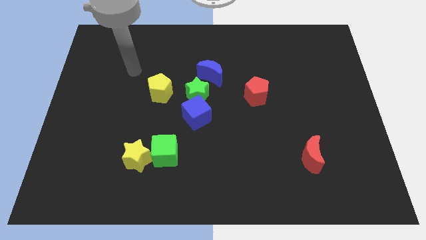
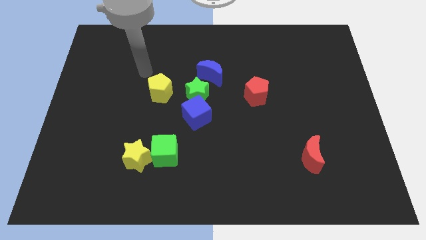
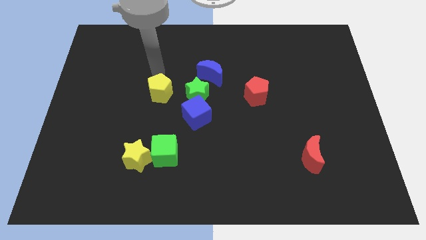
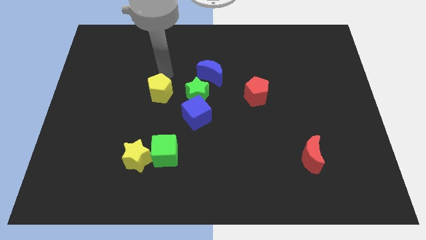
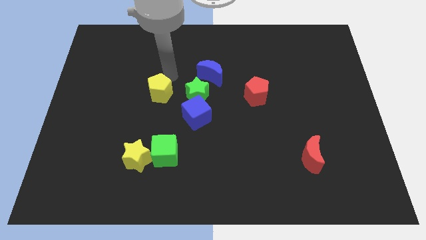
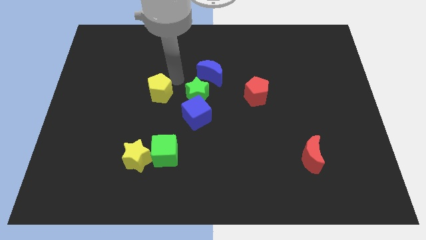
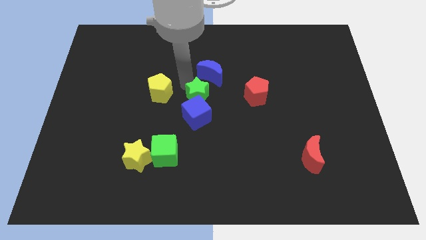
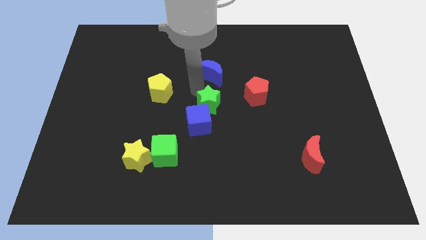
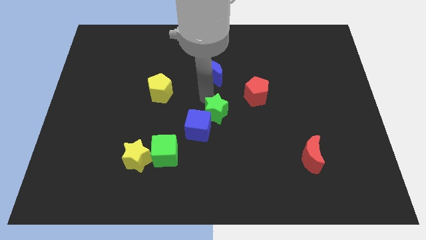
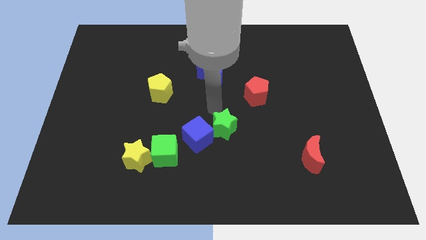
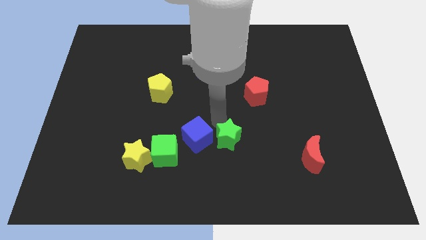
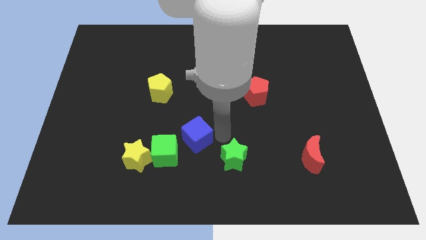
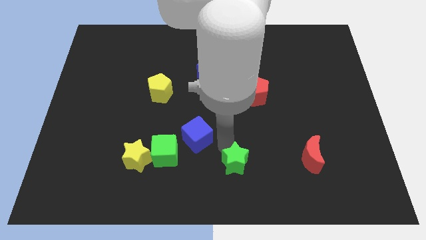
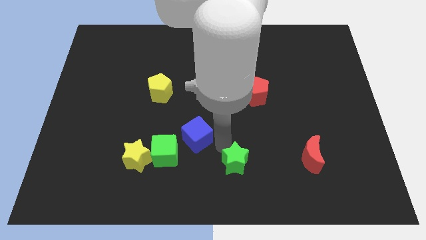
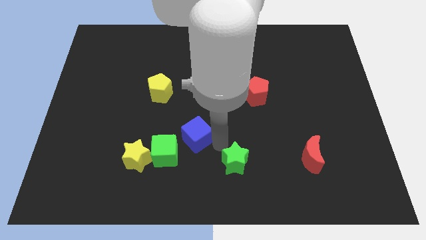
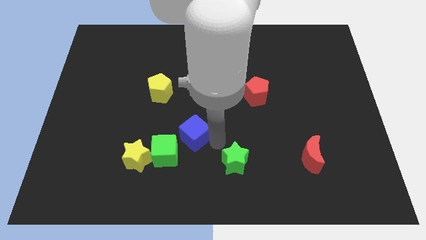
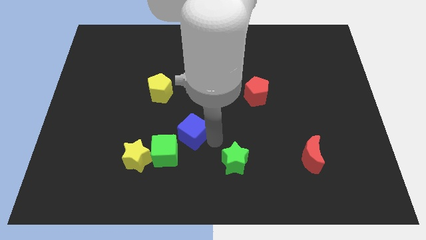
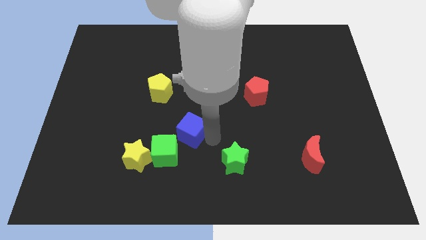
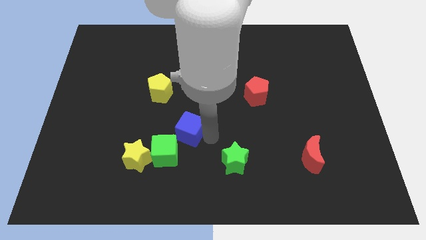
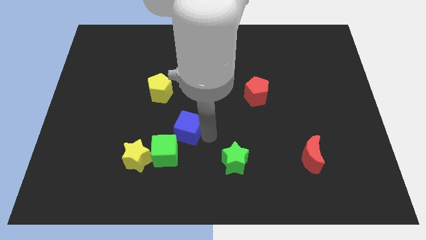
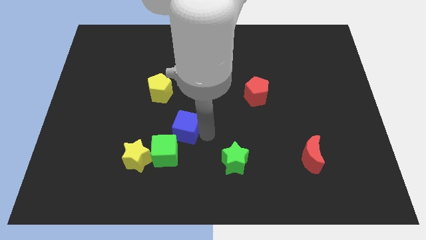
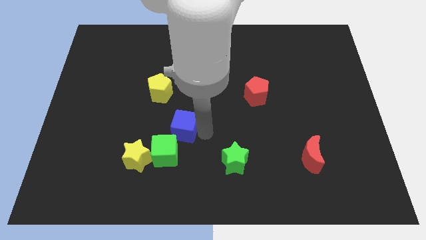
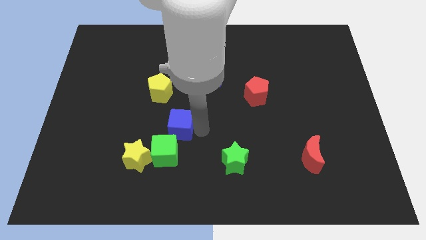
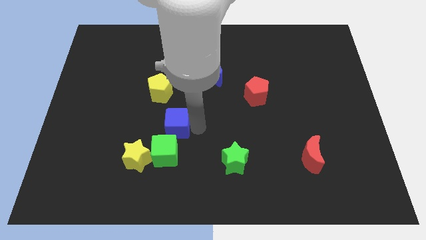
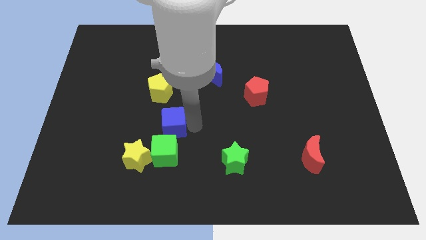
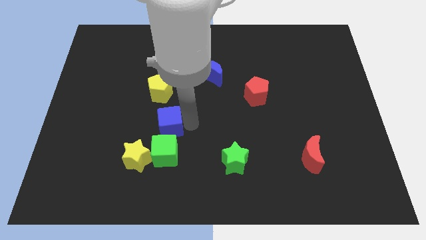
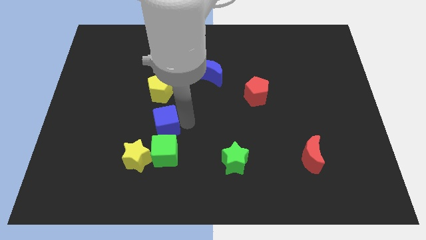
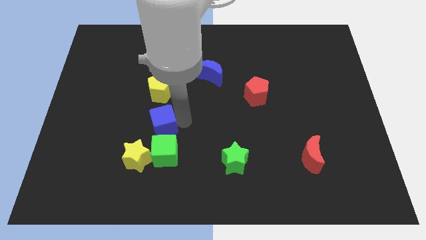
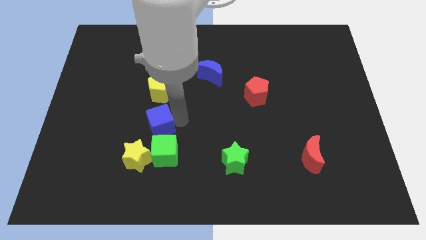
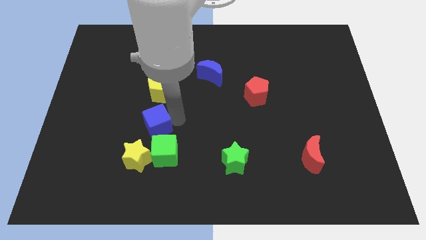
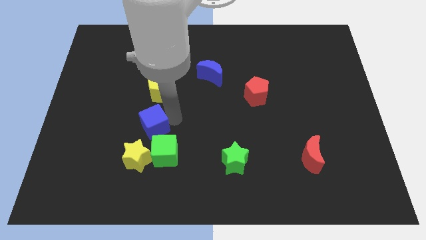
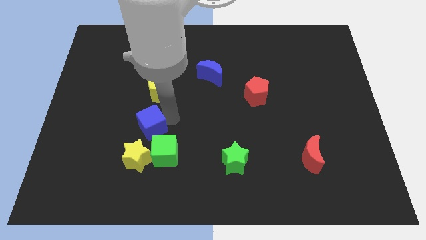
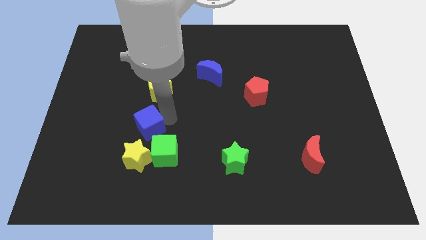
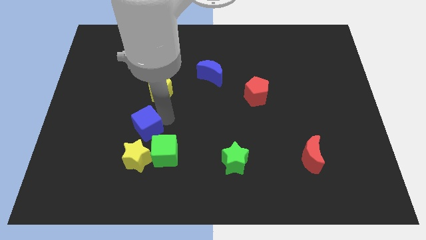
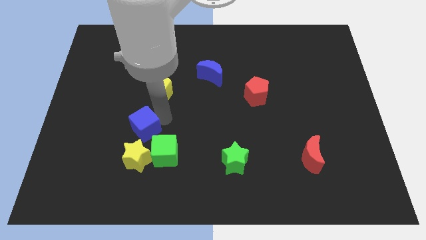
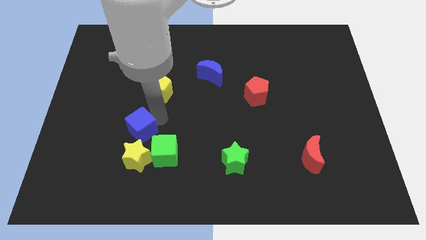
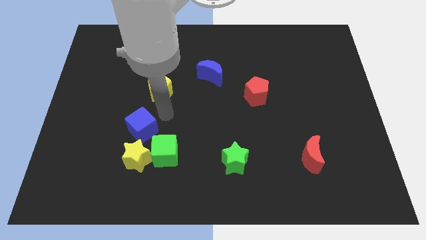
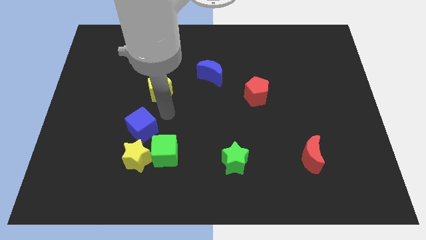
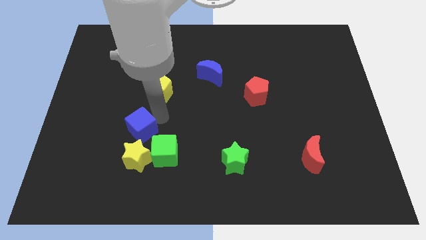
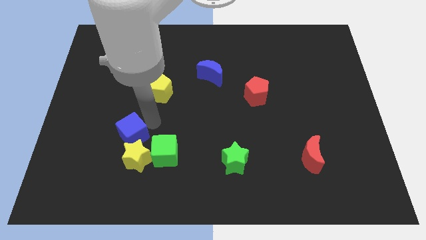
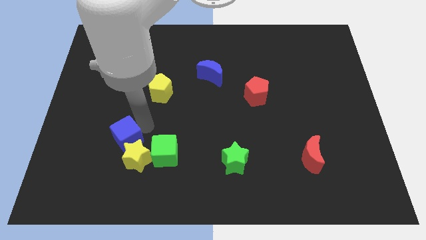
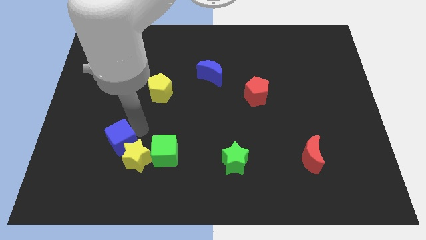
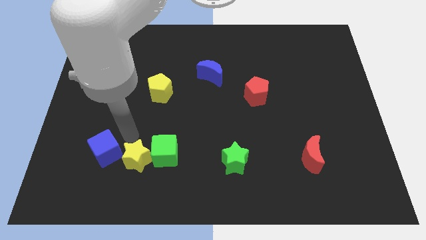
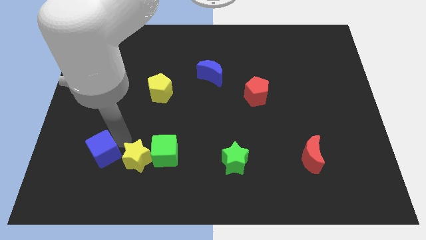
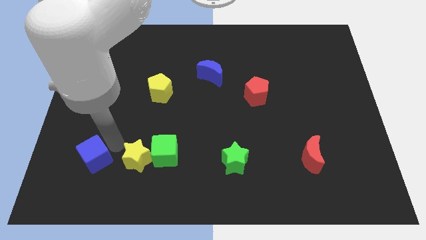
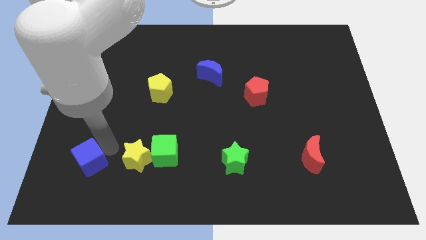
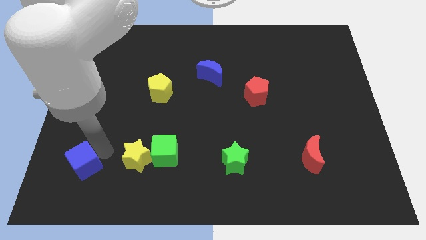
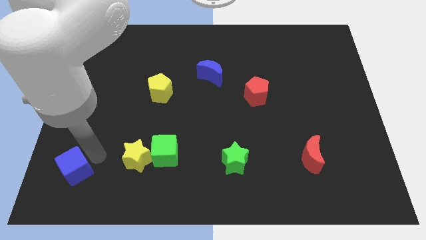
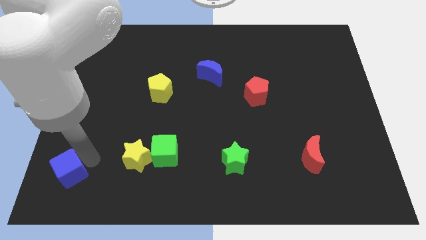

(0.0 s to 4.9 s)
slide the blue cube to the bottom left of the board

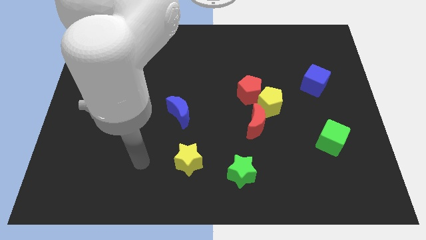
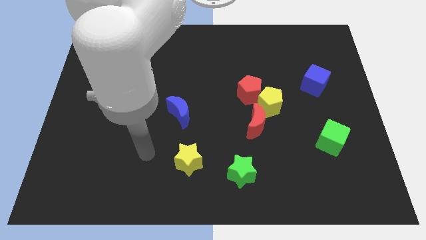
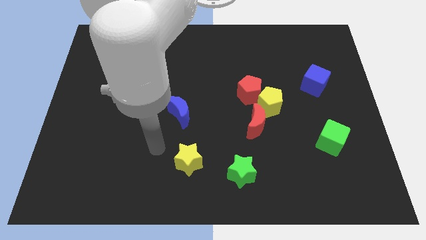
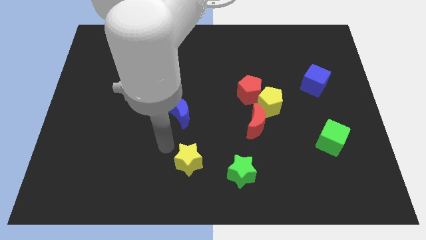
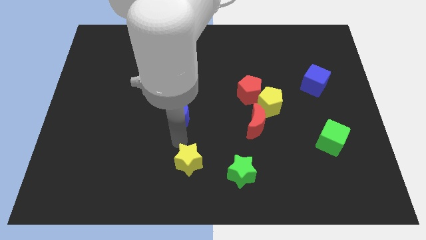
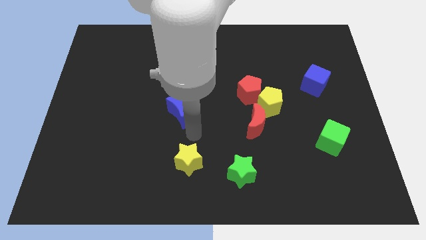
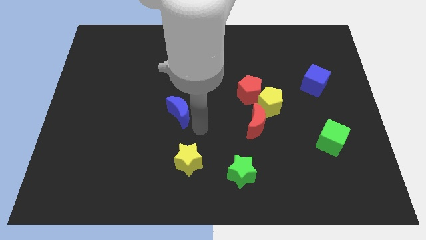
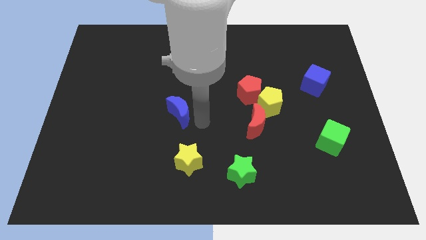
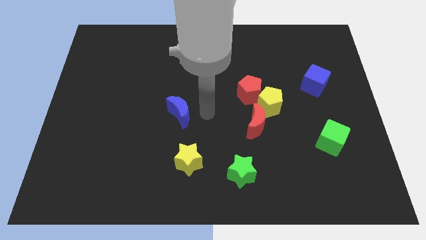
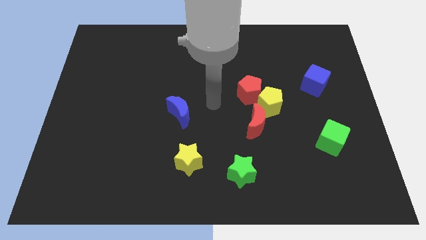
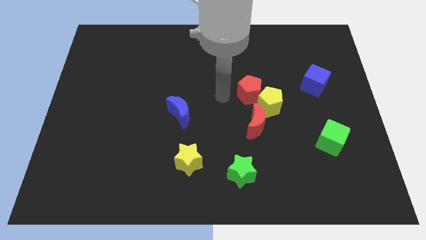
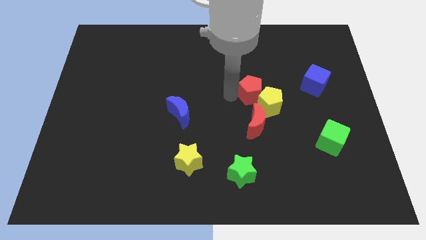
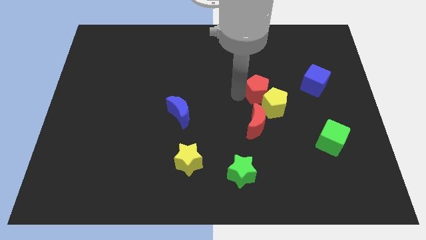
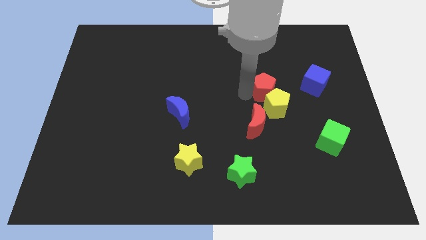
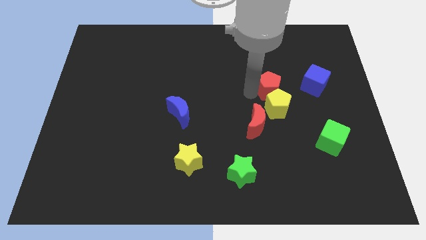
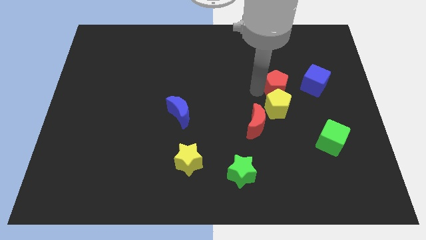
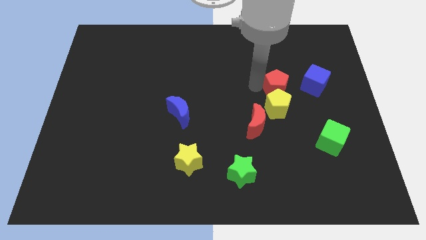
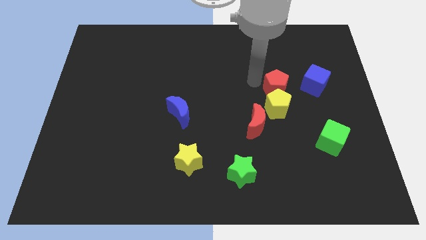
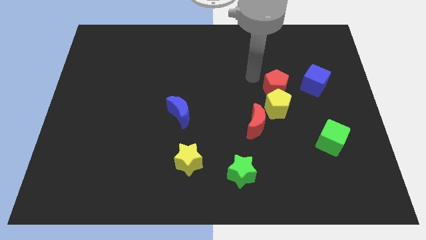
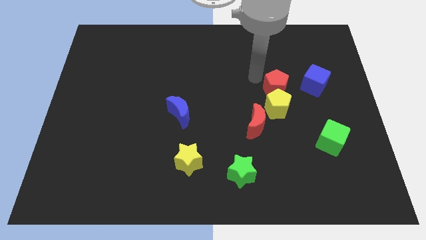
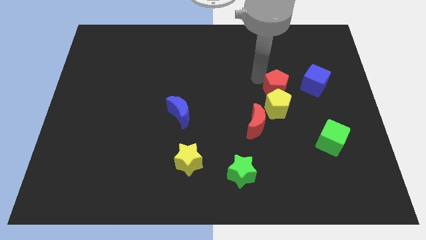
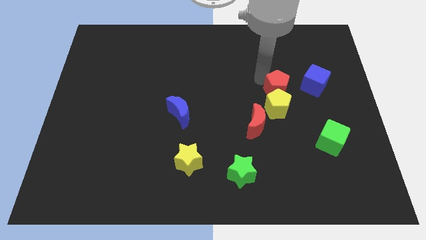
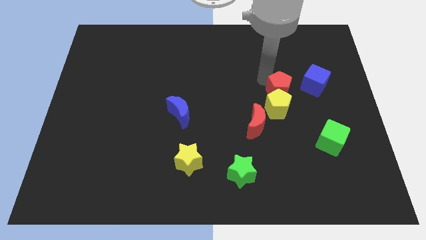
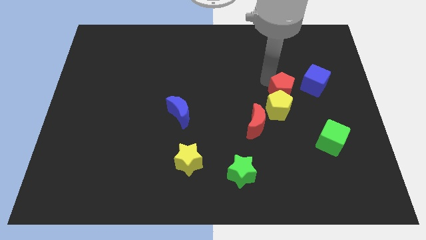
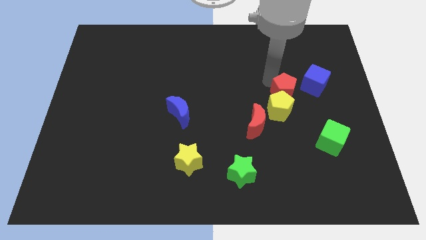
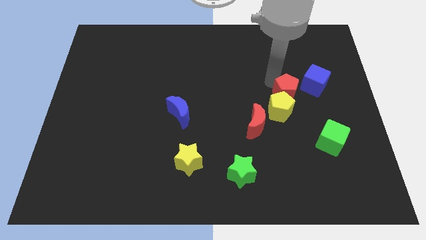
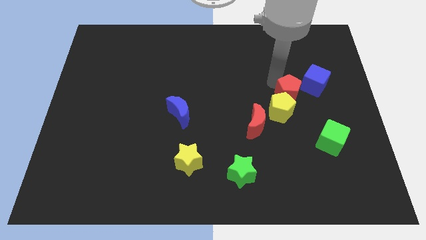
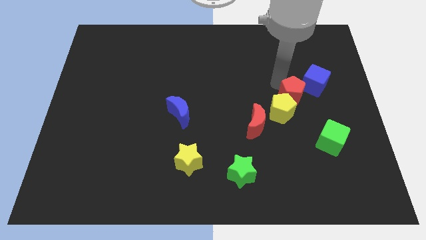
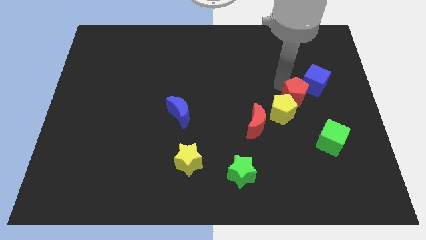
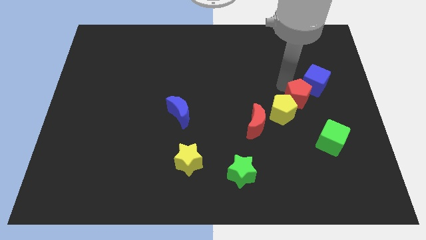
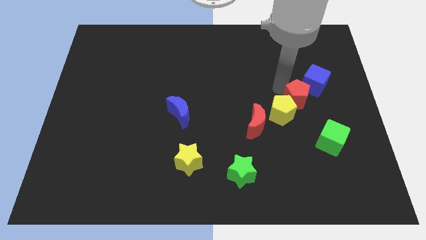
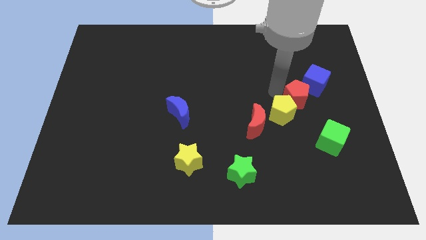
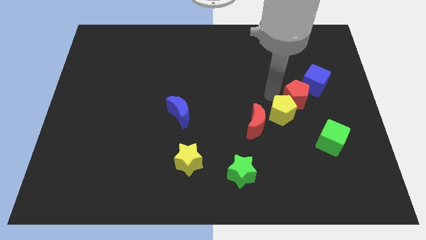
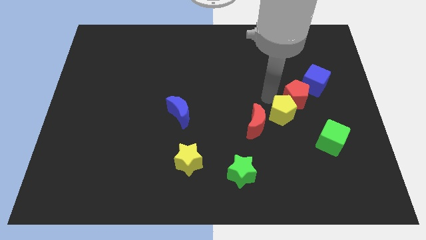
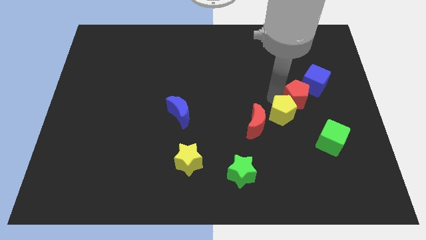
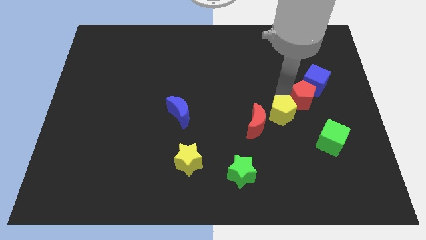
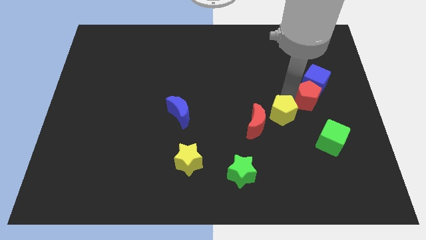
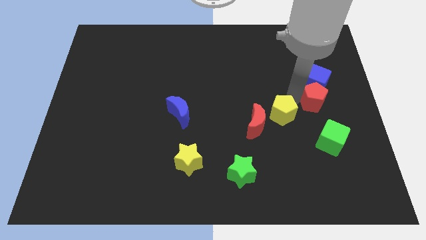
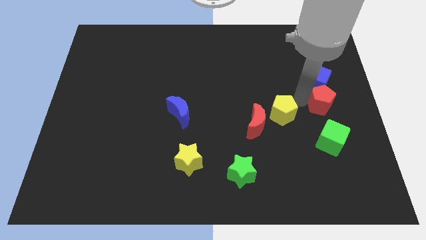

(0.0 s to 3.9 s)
push the red pentagon to the right side
